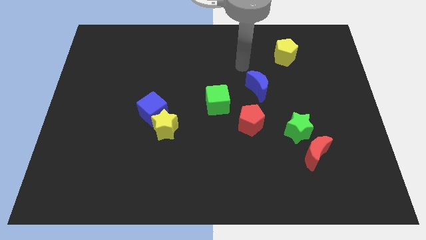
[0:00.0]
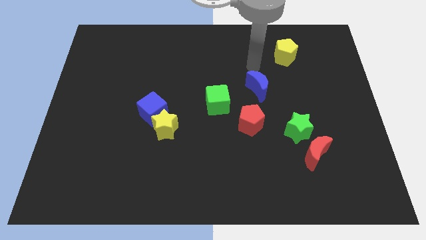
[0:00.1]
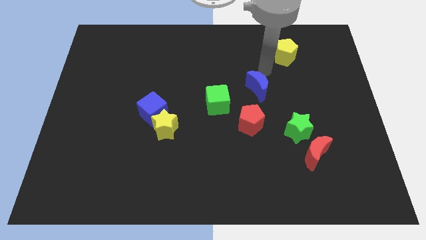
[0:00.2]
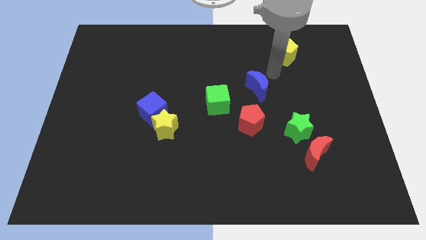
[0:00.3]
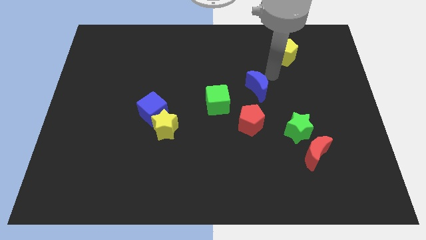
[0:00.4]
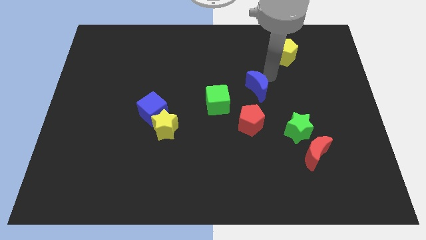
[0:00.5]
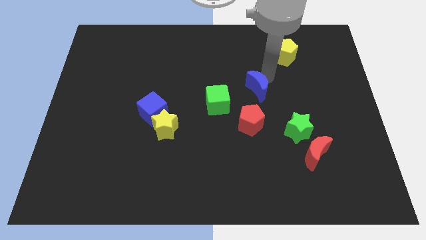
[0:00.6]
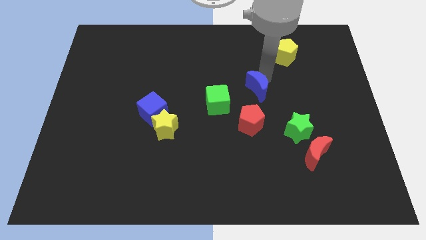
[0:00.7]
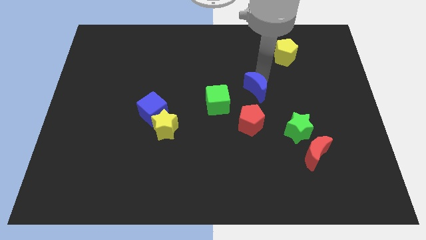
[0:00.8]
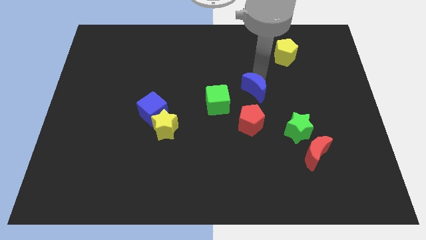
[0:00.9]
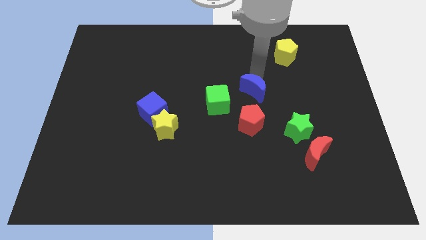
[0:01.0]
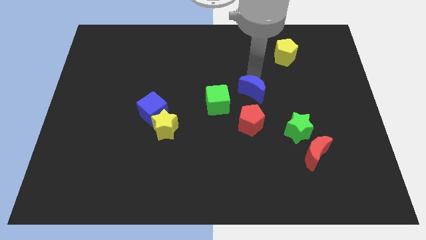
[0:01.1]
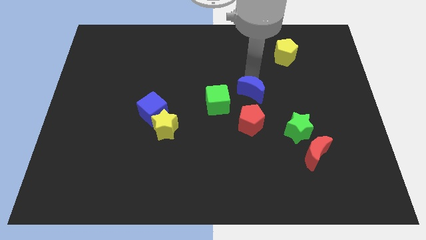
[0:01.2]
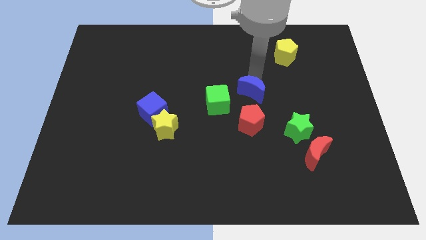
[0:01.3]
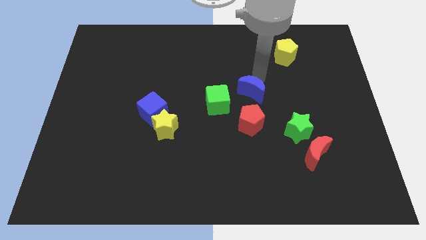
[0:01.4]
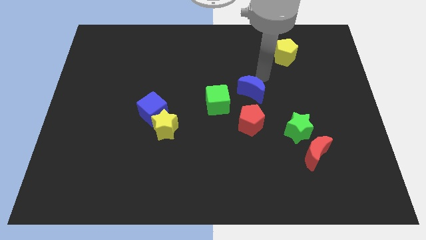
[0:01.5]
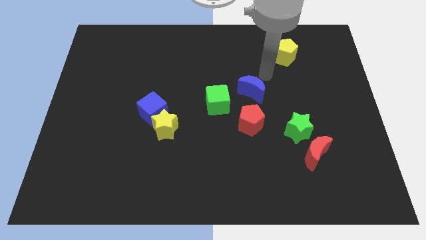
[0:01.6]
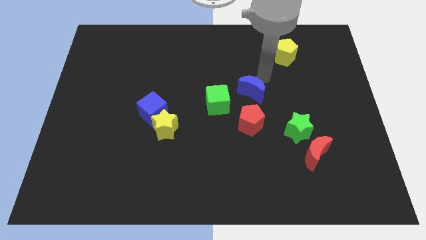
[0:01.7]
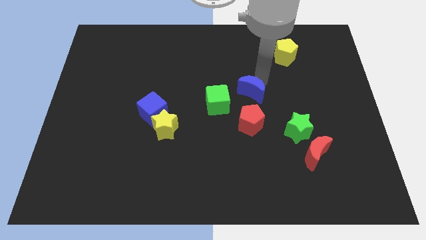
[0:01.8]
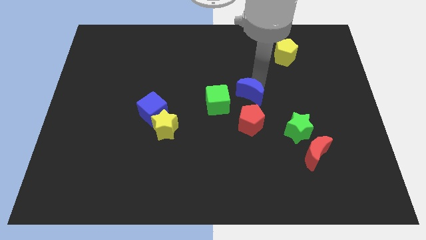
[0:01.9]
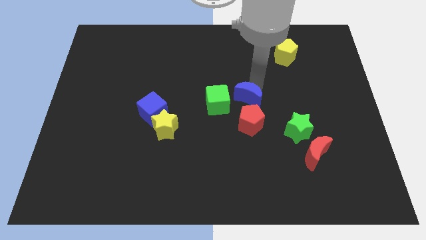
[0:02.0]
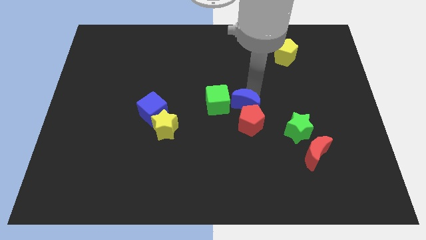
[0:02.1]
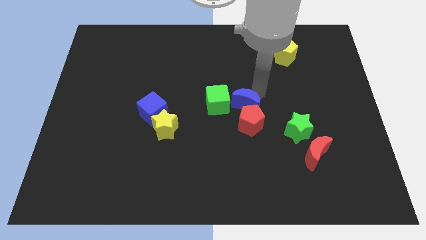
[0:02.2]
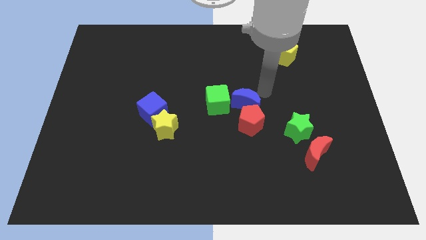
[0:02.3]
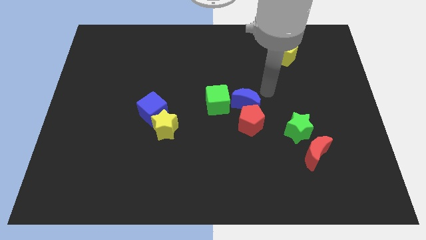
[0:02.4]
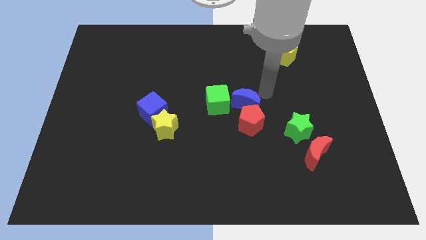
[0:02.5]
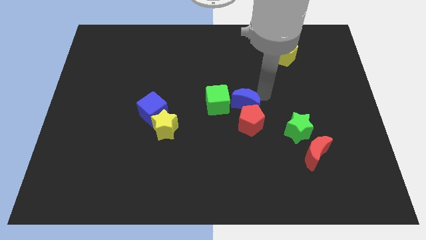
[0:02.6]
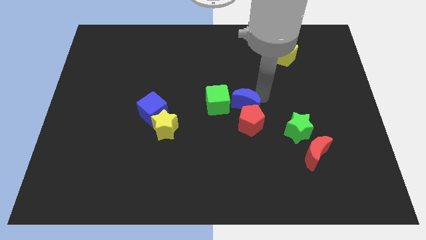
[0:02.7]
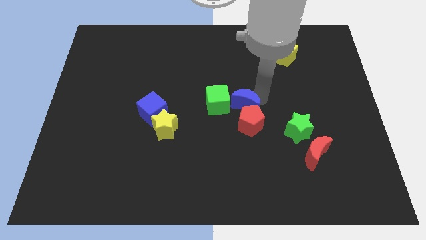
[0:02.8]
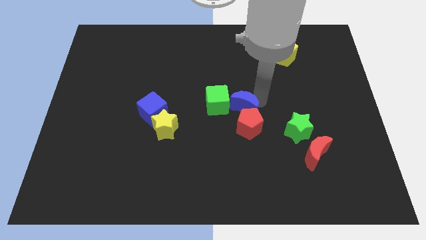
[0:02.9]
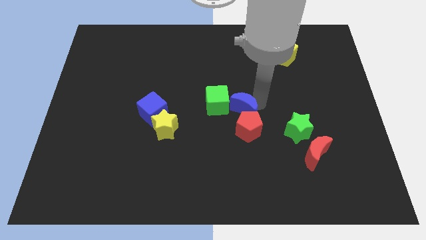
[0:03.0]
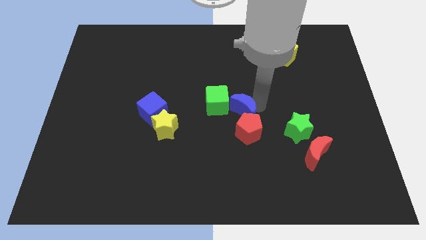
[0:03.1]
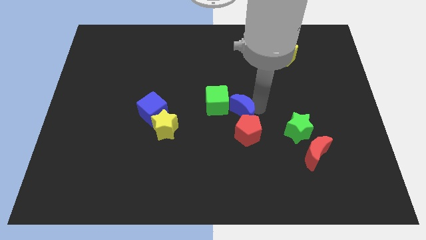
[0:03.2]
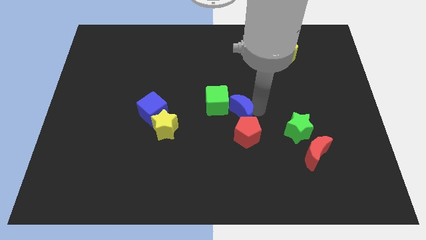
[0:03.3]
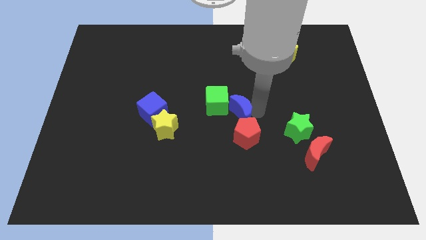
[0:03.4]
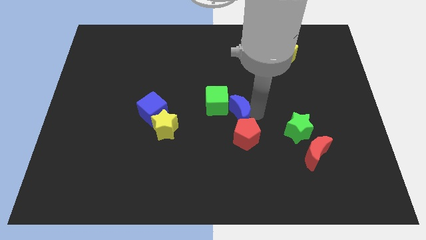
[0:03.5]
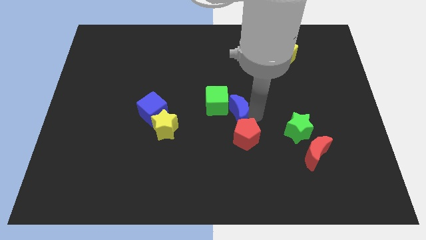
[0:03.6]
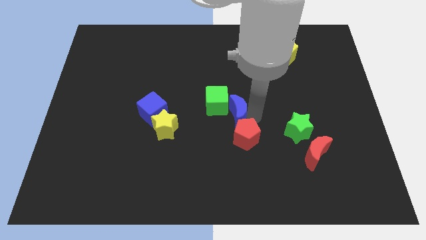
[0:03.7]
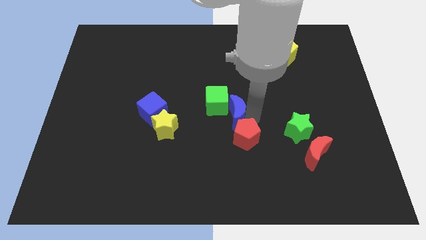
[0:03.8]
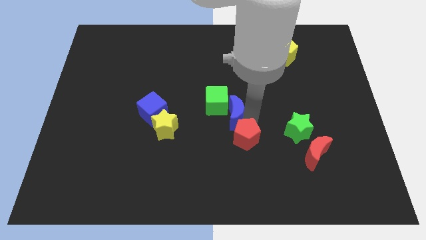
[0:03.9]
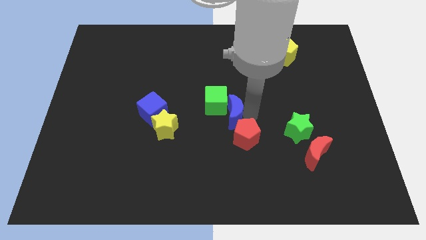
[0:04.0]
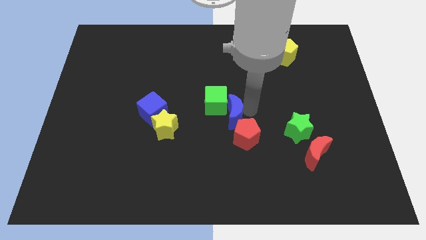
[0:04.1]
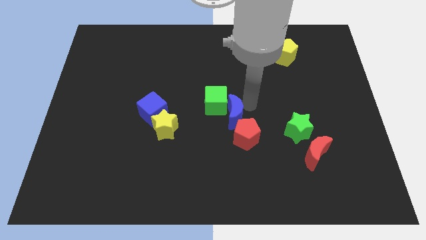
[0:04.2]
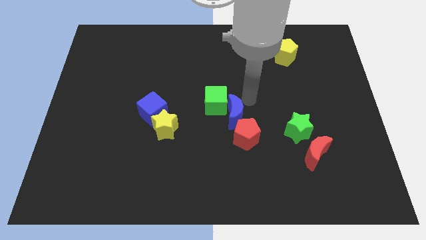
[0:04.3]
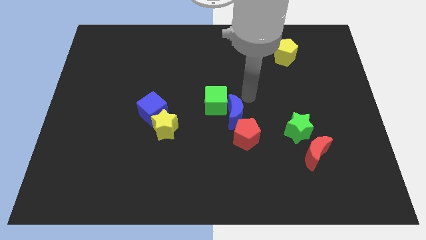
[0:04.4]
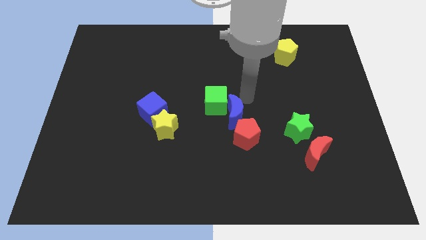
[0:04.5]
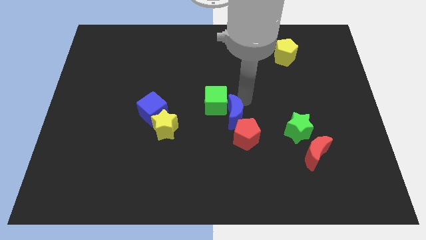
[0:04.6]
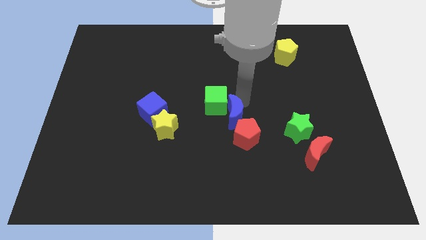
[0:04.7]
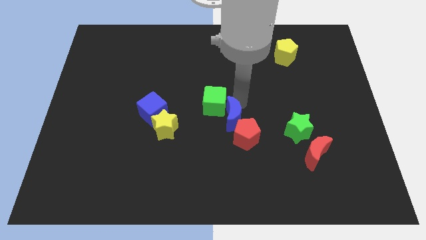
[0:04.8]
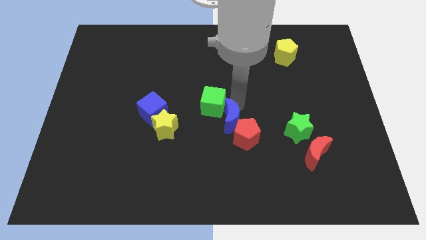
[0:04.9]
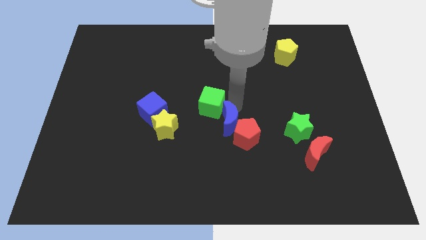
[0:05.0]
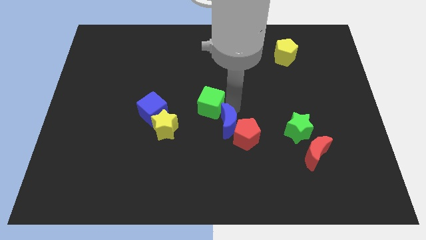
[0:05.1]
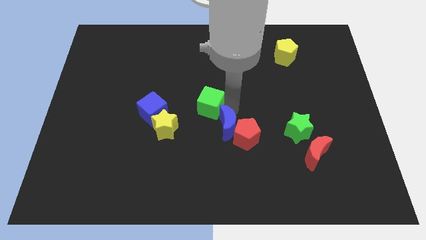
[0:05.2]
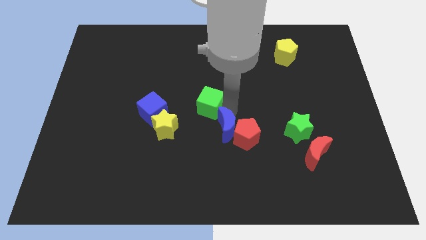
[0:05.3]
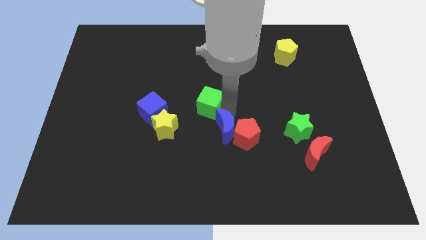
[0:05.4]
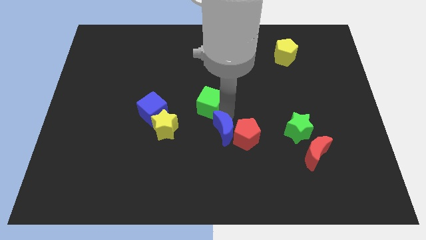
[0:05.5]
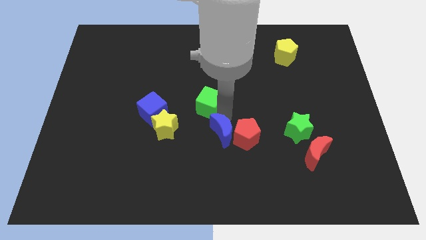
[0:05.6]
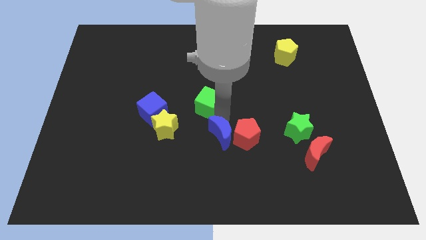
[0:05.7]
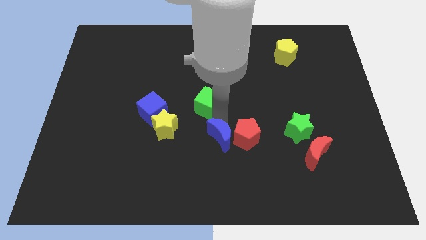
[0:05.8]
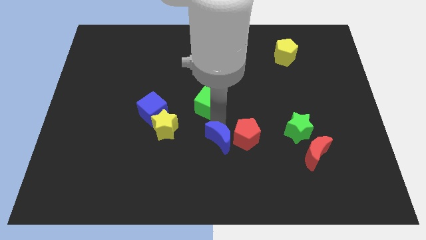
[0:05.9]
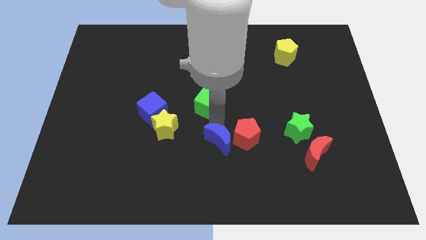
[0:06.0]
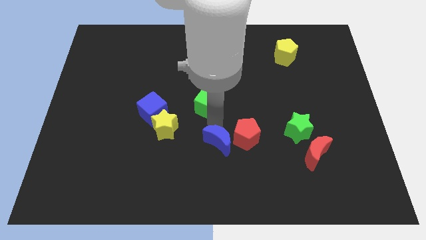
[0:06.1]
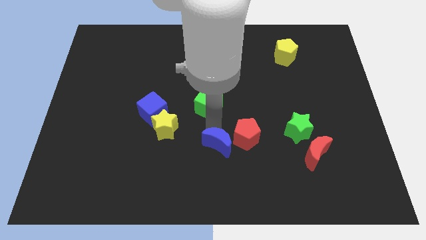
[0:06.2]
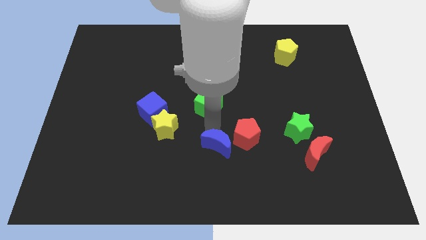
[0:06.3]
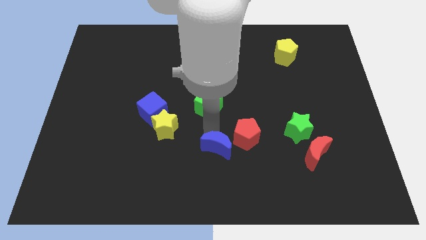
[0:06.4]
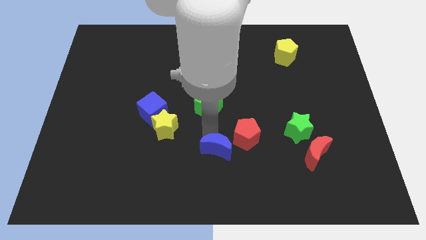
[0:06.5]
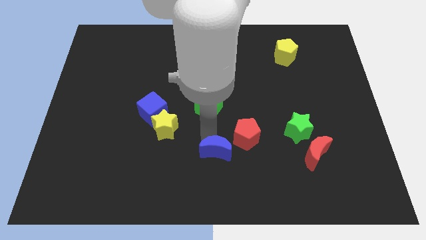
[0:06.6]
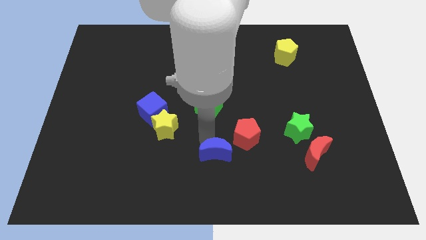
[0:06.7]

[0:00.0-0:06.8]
push the blue moon to the bottom
